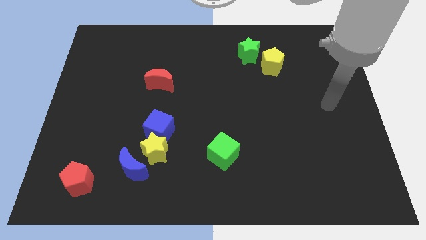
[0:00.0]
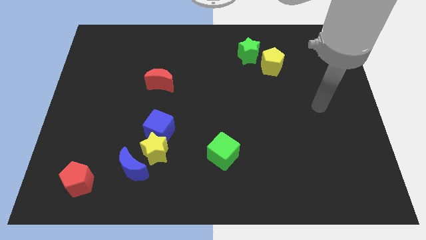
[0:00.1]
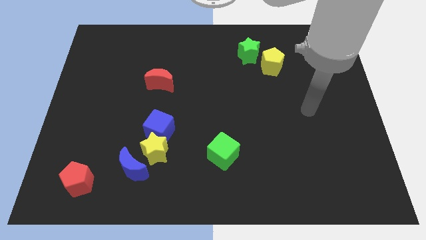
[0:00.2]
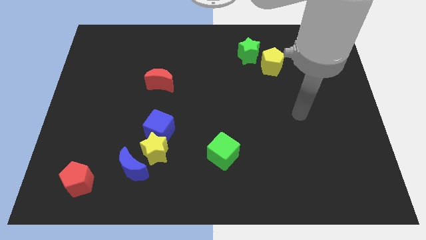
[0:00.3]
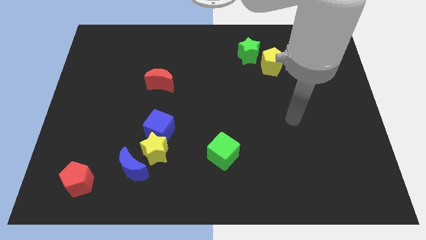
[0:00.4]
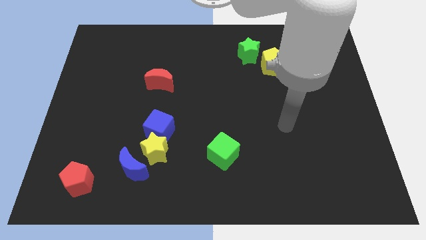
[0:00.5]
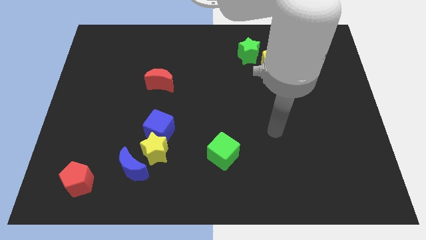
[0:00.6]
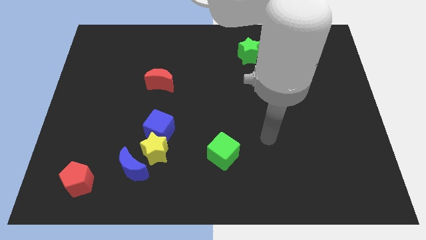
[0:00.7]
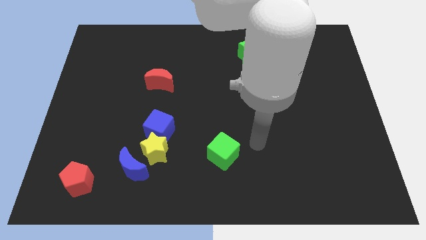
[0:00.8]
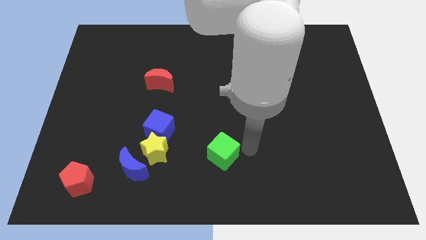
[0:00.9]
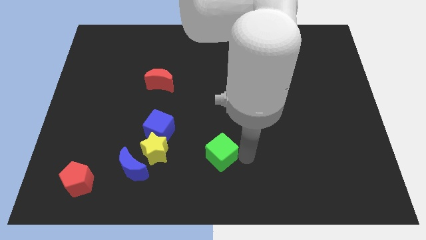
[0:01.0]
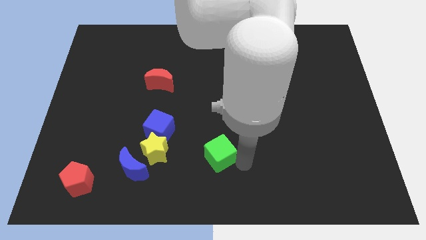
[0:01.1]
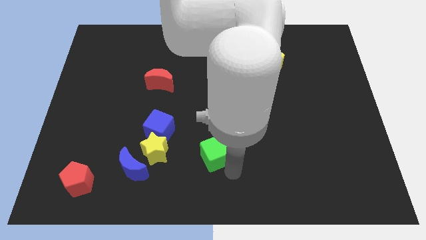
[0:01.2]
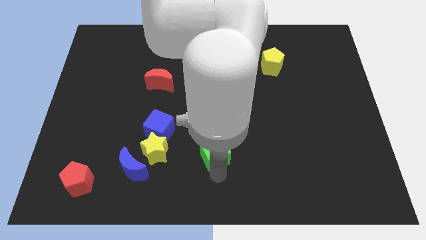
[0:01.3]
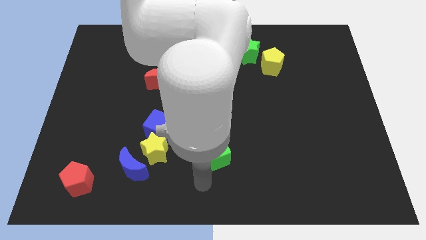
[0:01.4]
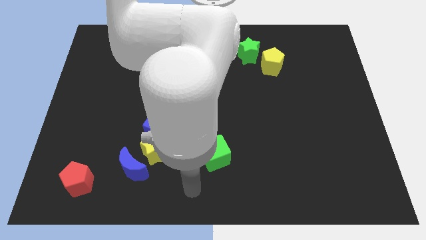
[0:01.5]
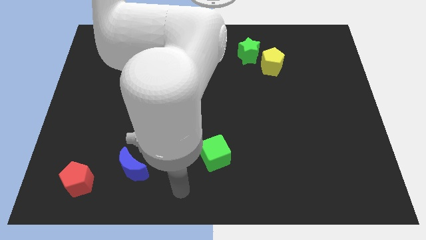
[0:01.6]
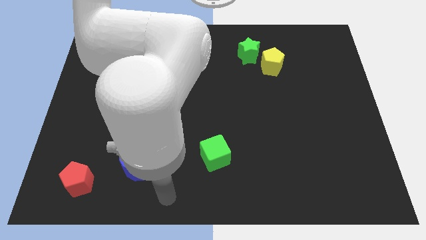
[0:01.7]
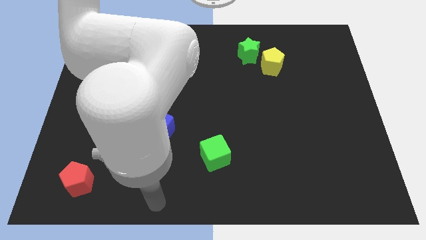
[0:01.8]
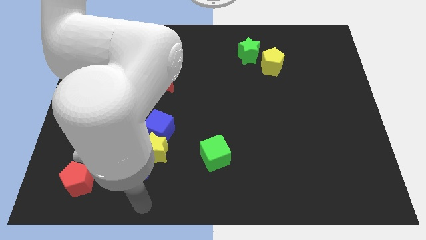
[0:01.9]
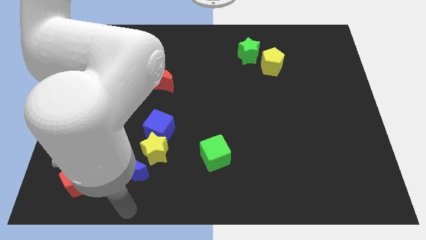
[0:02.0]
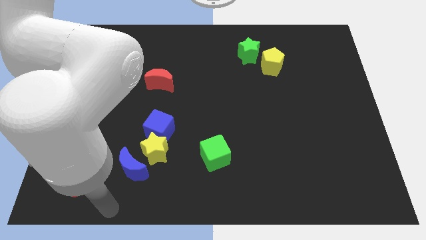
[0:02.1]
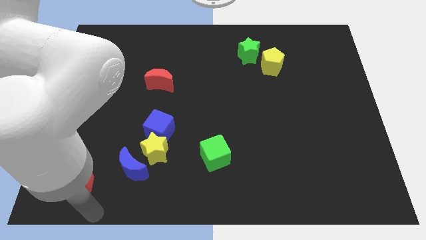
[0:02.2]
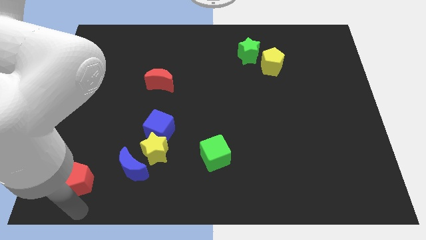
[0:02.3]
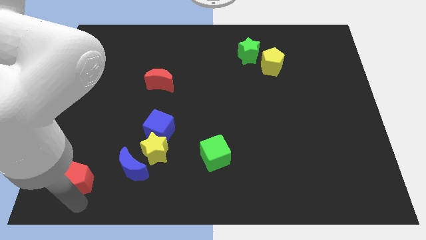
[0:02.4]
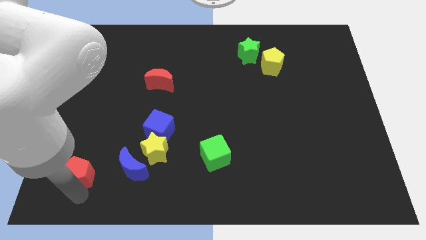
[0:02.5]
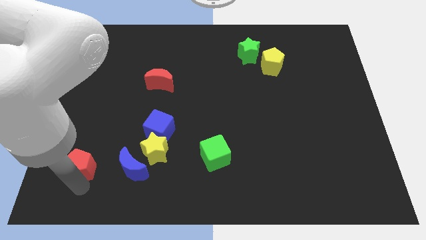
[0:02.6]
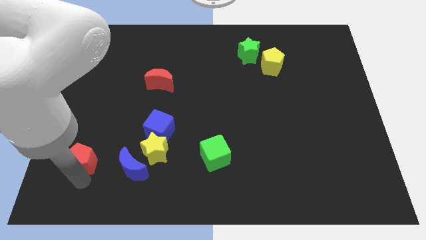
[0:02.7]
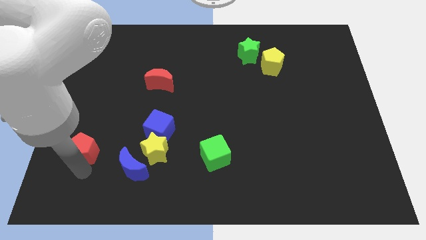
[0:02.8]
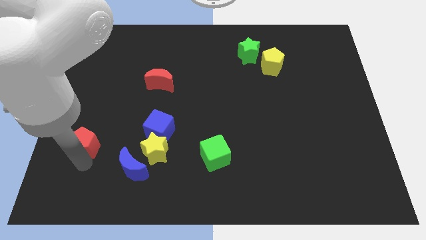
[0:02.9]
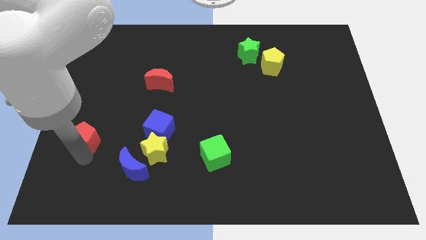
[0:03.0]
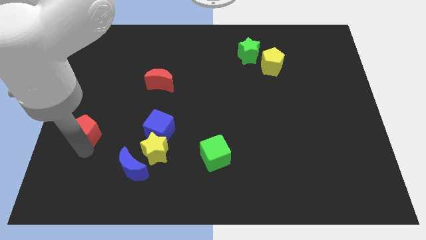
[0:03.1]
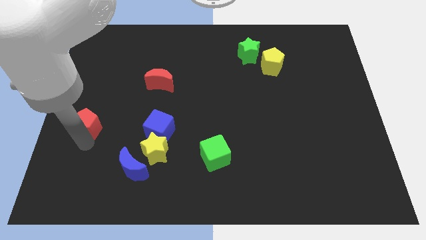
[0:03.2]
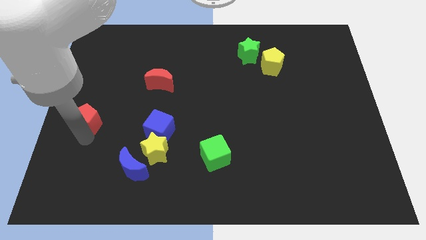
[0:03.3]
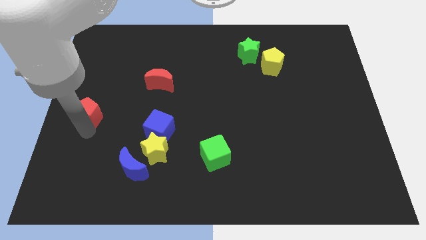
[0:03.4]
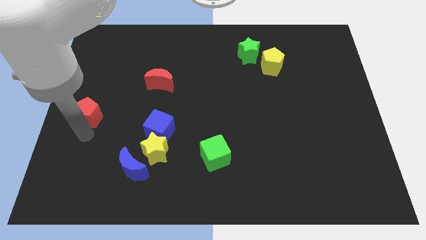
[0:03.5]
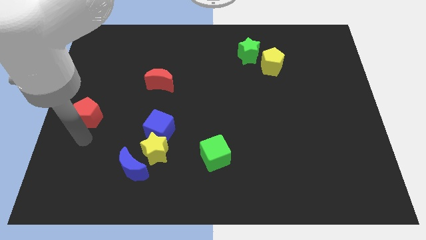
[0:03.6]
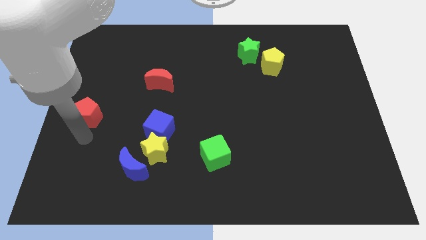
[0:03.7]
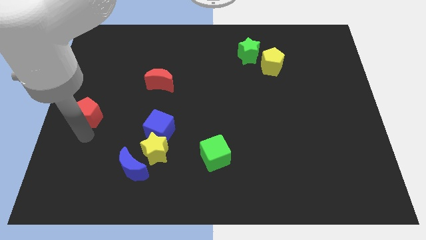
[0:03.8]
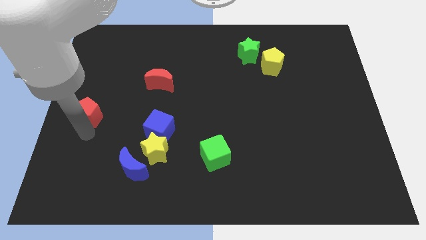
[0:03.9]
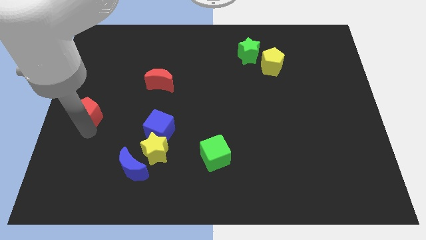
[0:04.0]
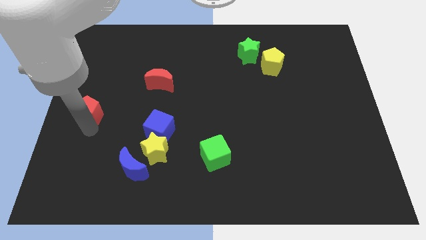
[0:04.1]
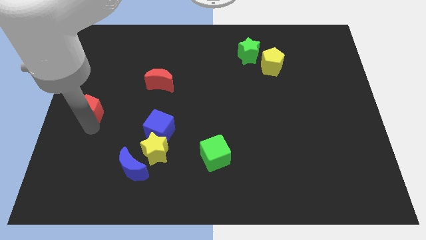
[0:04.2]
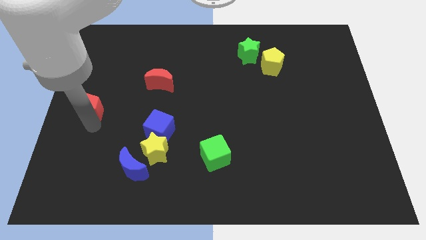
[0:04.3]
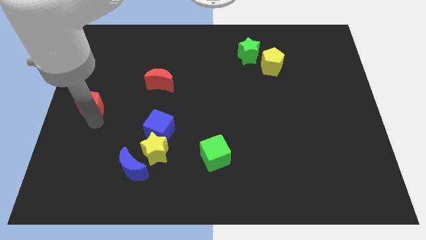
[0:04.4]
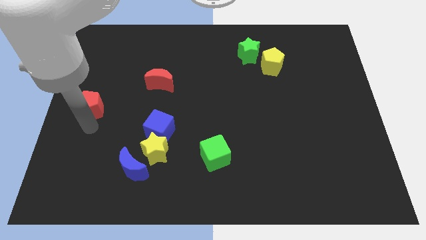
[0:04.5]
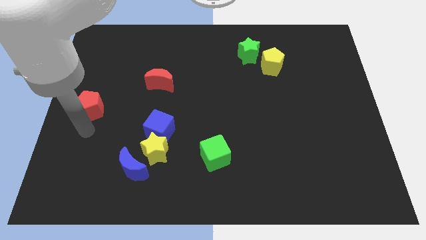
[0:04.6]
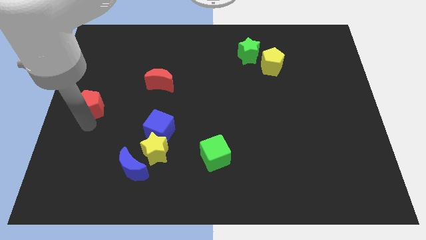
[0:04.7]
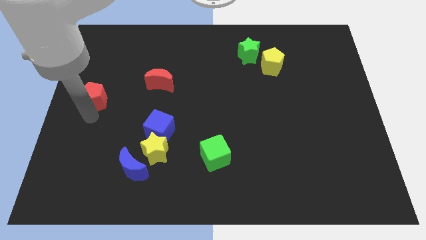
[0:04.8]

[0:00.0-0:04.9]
slide the red pentagon up

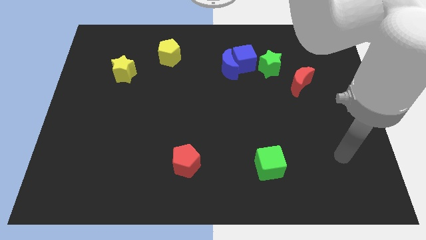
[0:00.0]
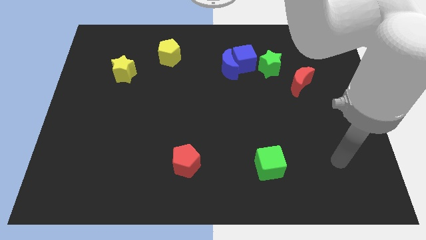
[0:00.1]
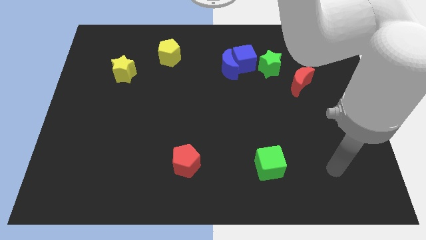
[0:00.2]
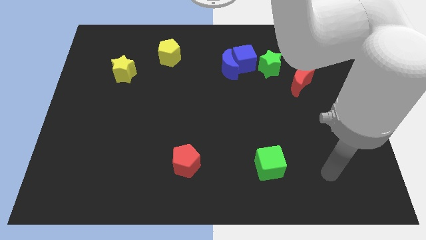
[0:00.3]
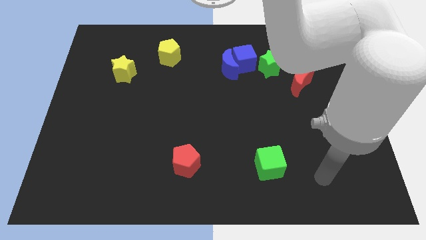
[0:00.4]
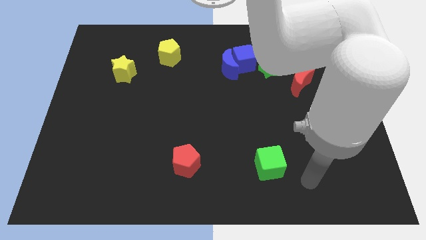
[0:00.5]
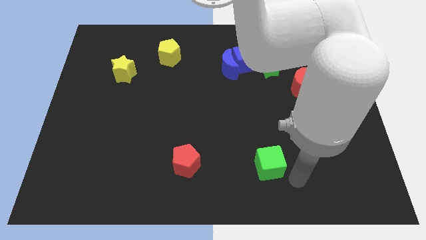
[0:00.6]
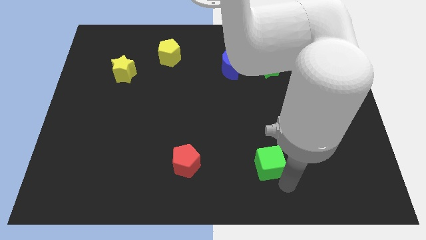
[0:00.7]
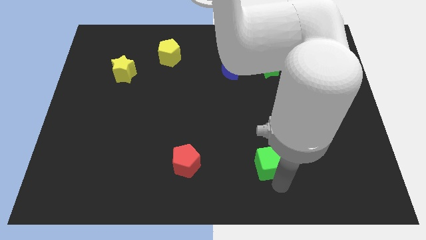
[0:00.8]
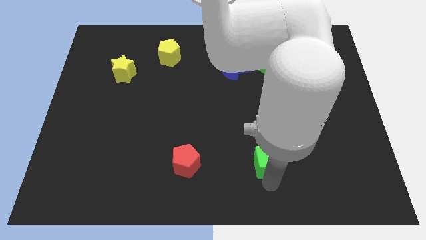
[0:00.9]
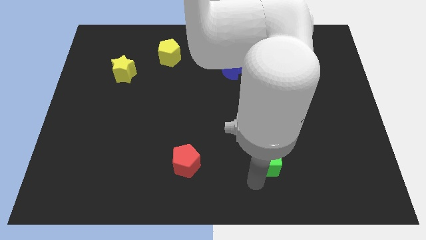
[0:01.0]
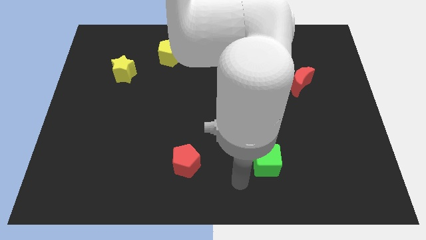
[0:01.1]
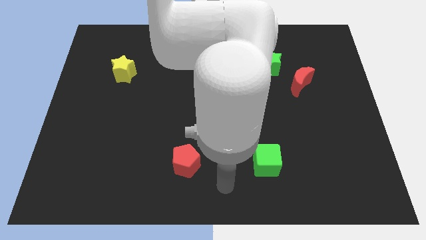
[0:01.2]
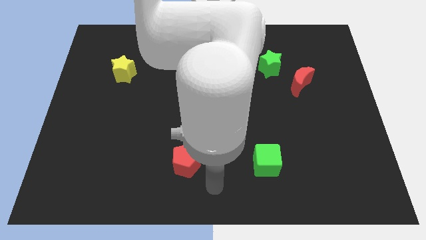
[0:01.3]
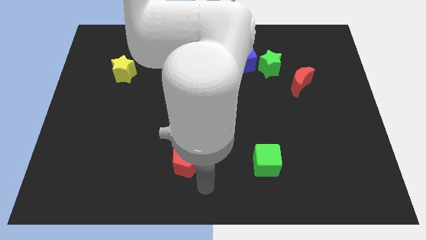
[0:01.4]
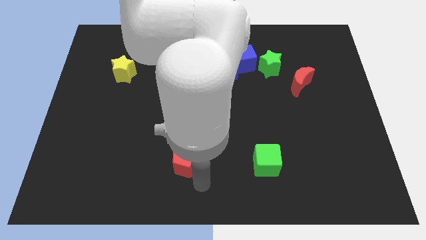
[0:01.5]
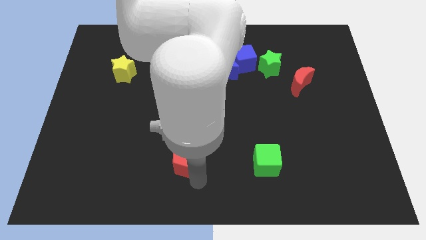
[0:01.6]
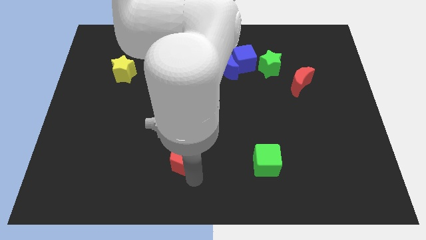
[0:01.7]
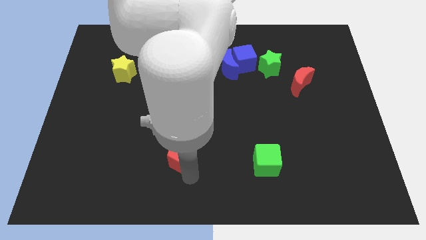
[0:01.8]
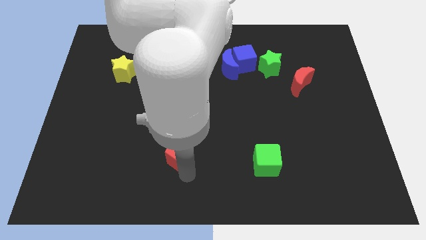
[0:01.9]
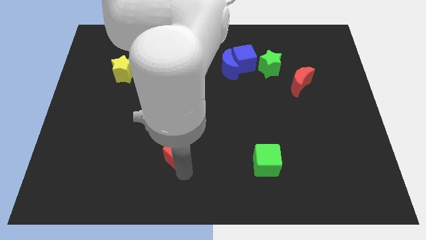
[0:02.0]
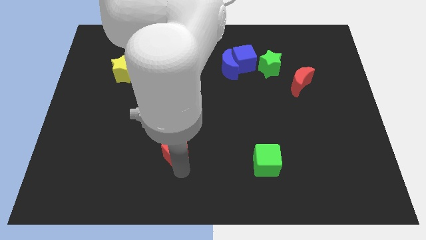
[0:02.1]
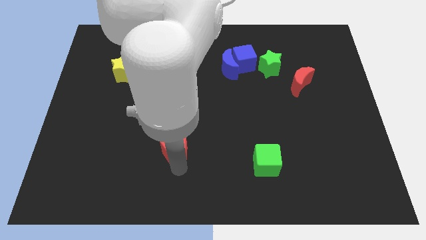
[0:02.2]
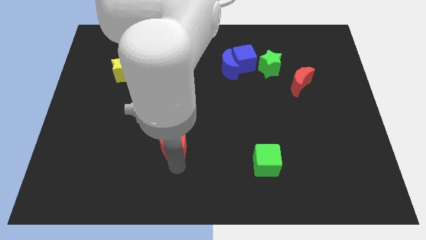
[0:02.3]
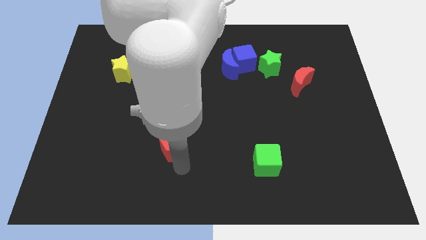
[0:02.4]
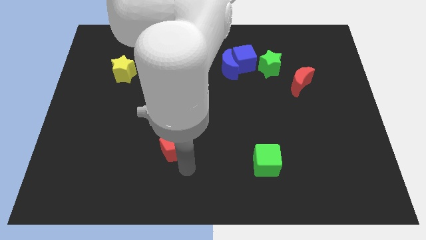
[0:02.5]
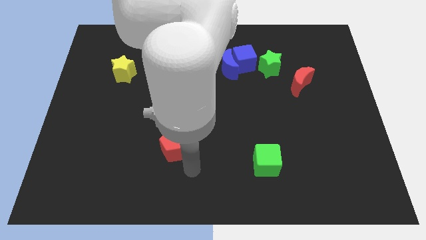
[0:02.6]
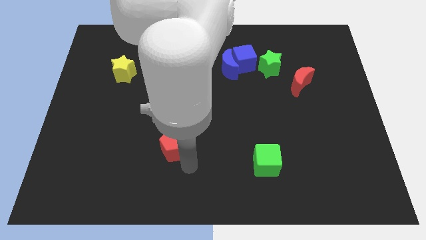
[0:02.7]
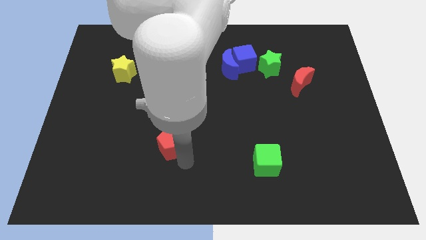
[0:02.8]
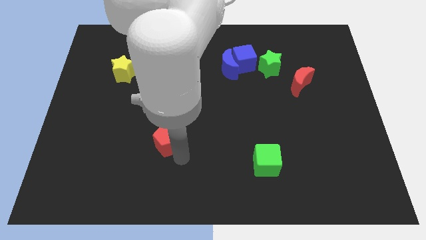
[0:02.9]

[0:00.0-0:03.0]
push the red pentagon up and then left a little

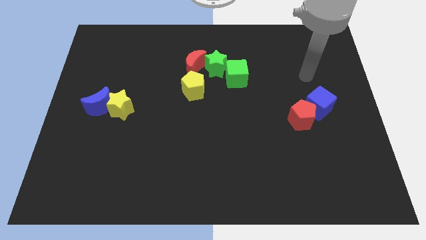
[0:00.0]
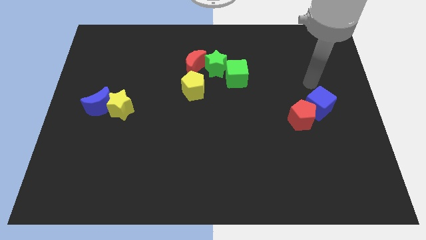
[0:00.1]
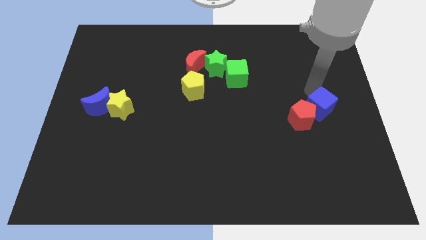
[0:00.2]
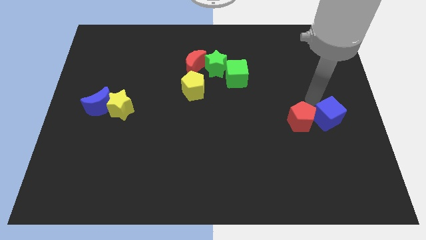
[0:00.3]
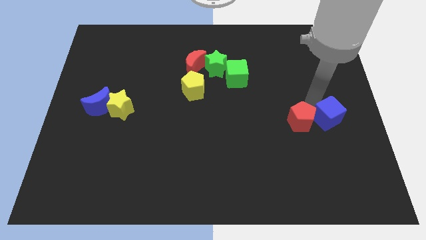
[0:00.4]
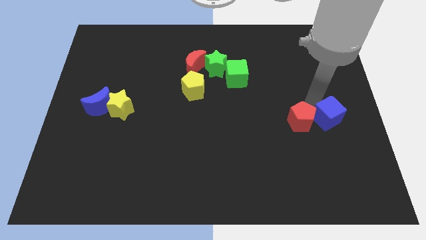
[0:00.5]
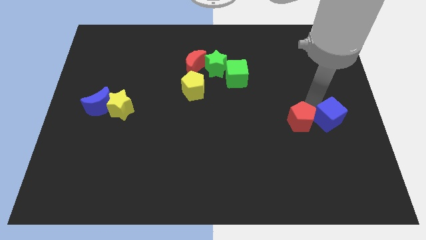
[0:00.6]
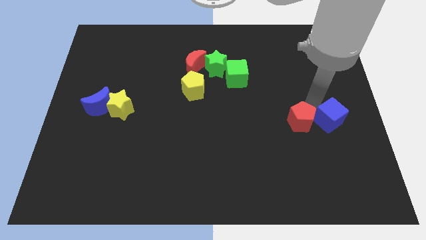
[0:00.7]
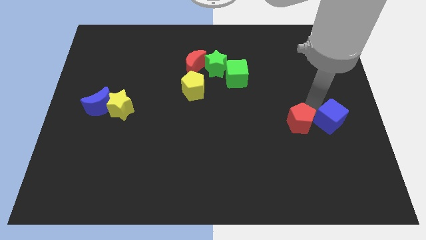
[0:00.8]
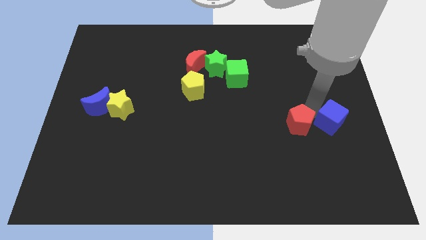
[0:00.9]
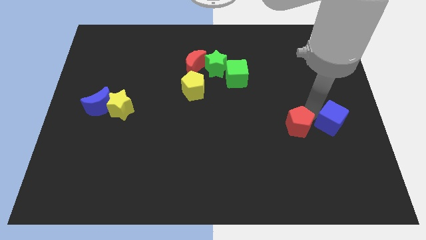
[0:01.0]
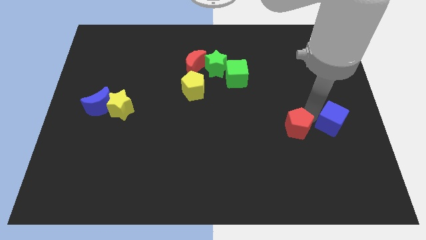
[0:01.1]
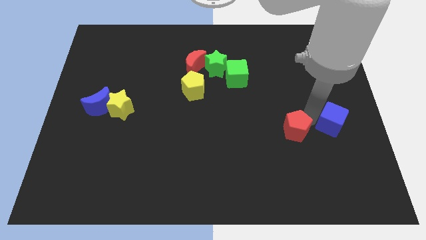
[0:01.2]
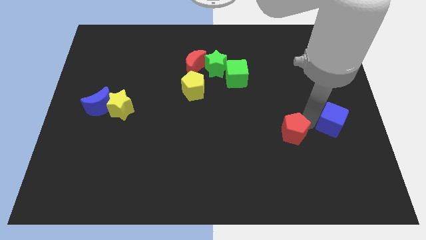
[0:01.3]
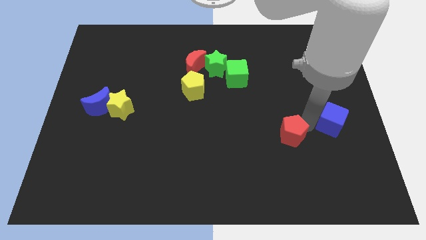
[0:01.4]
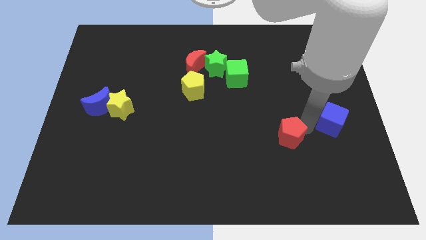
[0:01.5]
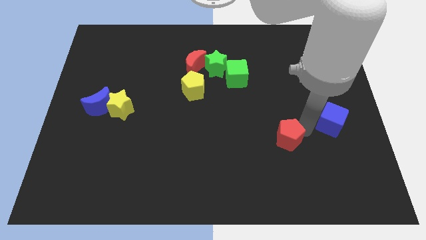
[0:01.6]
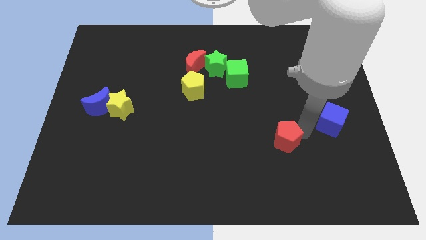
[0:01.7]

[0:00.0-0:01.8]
move the red pentagon a little bit diagonally down and to the left
